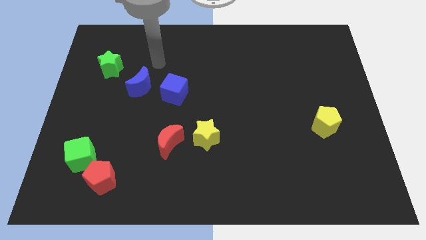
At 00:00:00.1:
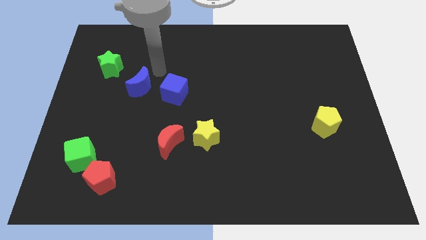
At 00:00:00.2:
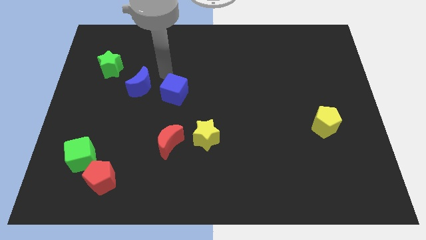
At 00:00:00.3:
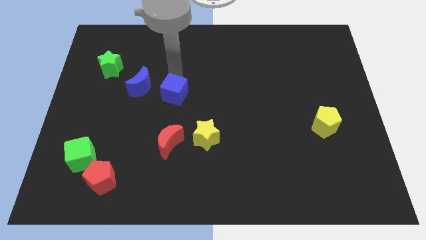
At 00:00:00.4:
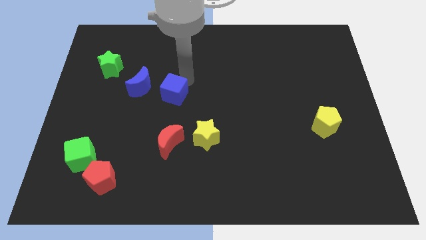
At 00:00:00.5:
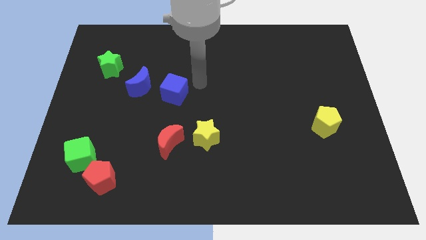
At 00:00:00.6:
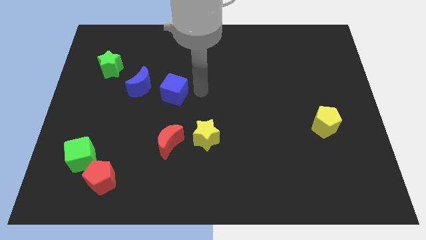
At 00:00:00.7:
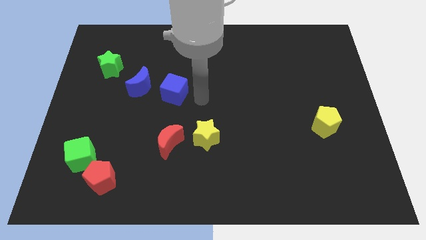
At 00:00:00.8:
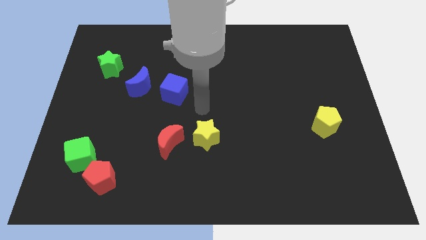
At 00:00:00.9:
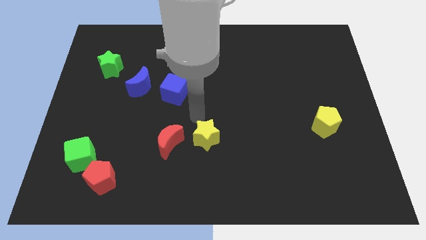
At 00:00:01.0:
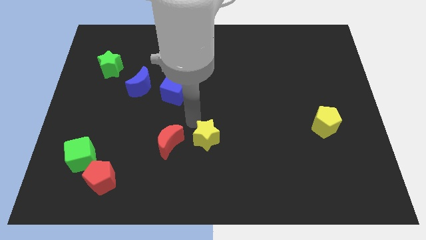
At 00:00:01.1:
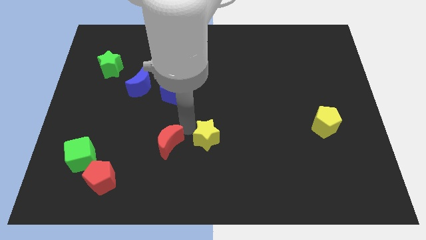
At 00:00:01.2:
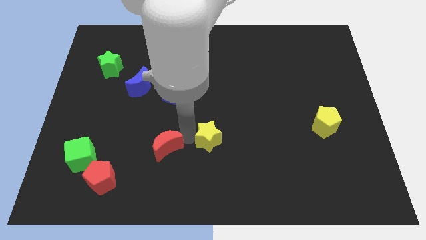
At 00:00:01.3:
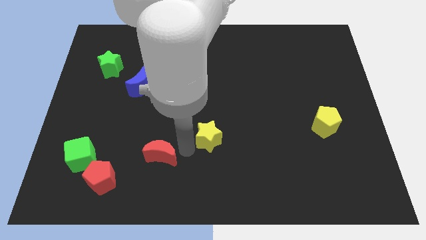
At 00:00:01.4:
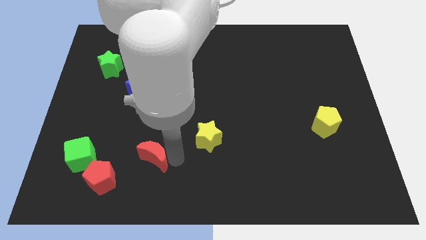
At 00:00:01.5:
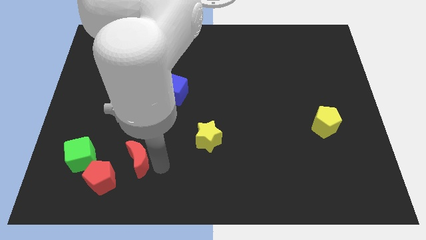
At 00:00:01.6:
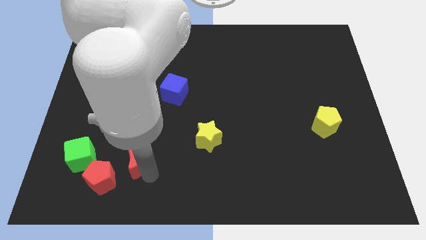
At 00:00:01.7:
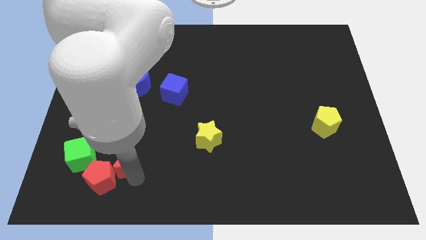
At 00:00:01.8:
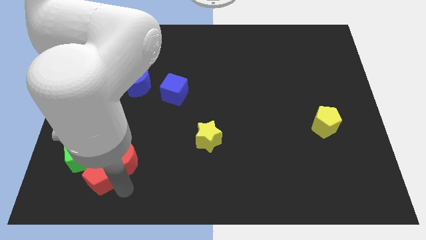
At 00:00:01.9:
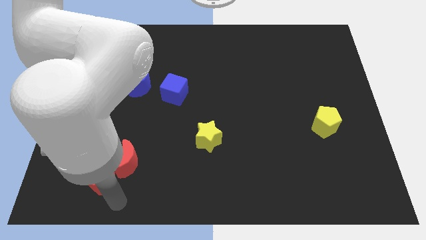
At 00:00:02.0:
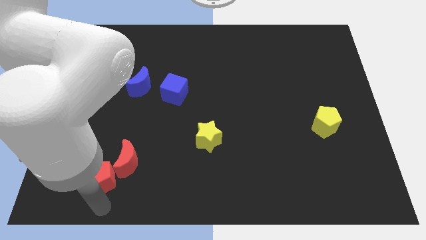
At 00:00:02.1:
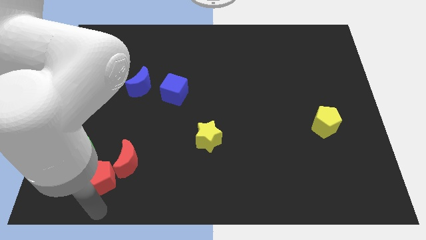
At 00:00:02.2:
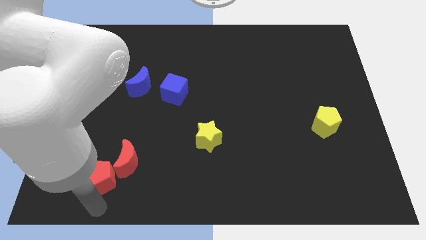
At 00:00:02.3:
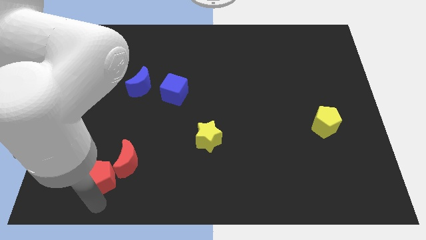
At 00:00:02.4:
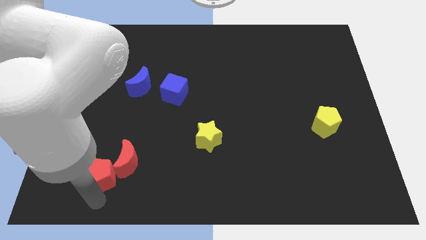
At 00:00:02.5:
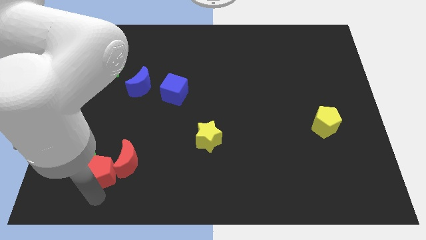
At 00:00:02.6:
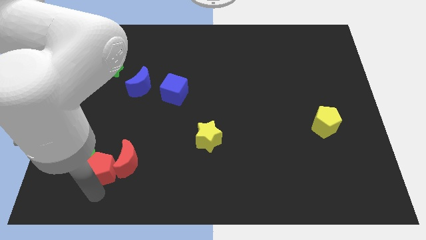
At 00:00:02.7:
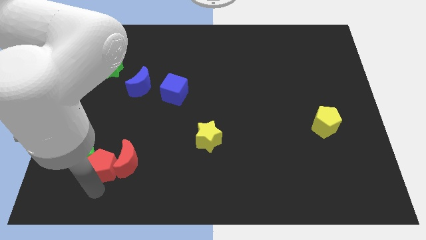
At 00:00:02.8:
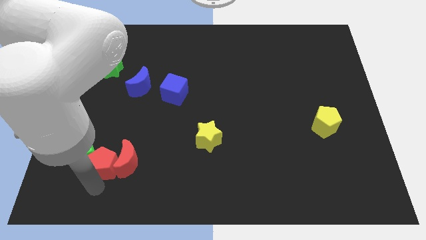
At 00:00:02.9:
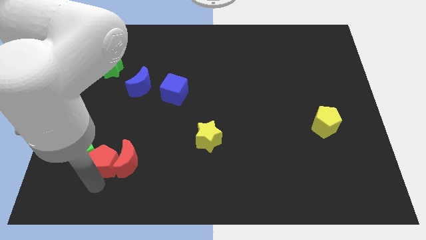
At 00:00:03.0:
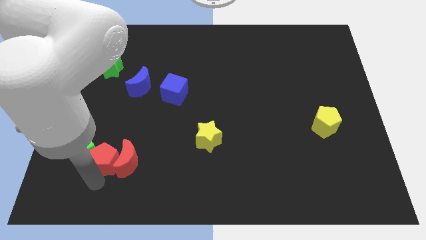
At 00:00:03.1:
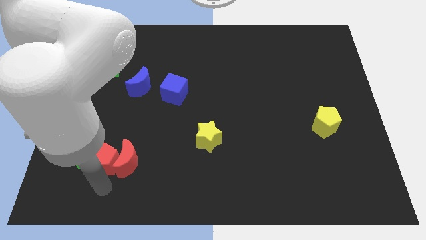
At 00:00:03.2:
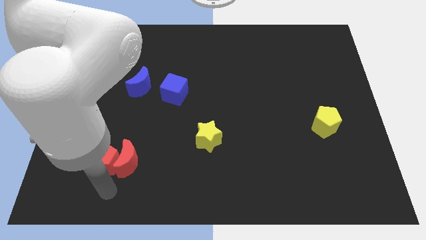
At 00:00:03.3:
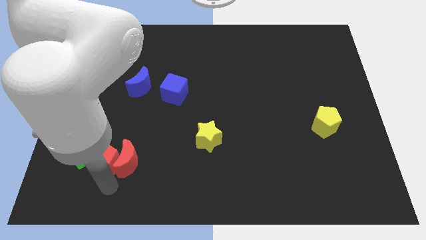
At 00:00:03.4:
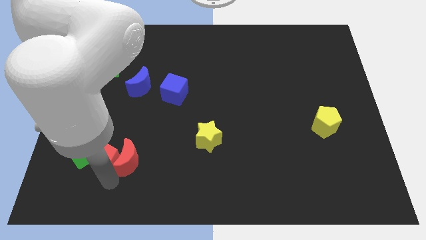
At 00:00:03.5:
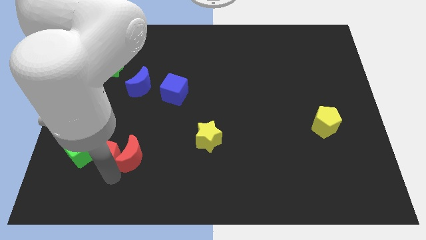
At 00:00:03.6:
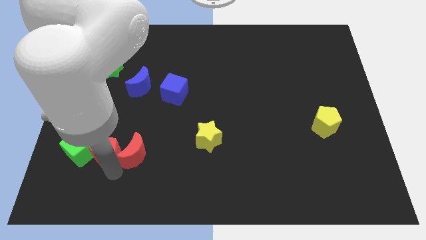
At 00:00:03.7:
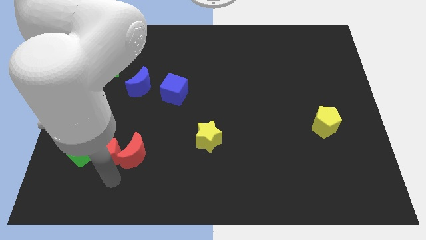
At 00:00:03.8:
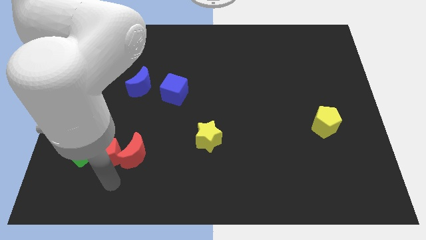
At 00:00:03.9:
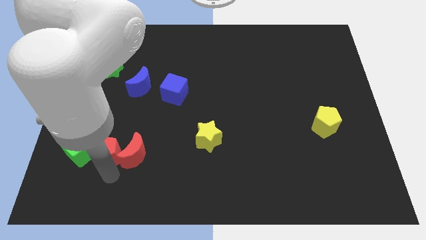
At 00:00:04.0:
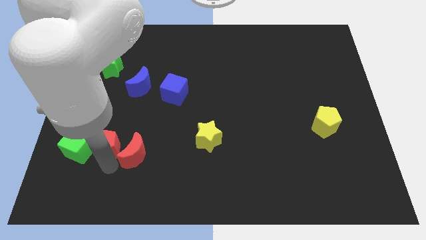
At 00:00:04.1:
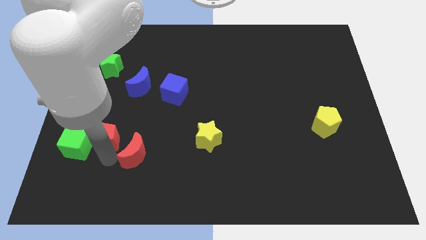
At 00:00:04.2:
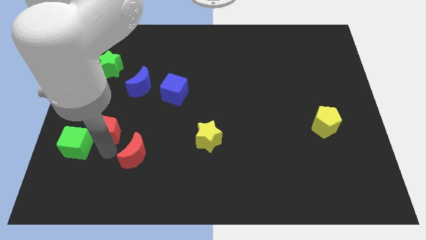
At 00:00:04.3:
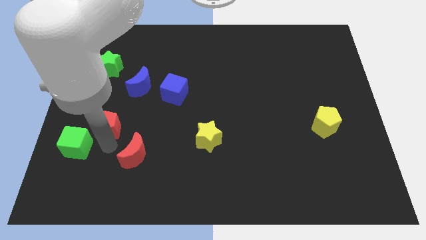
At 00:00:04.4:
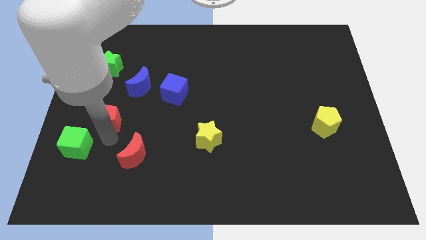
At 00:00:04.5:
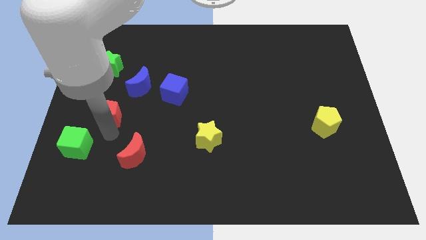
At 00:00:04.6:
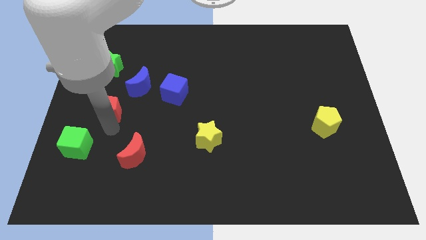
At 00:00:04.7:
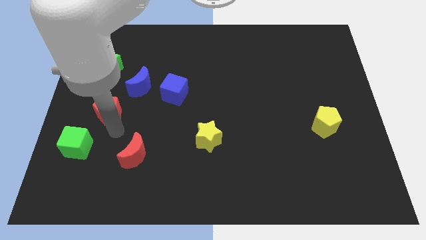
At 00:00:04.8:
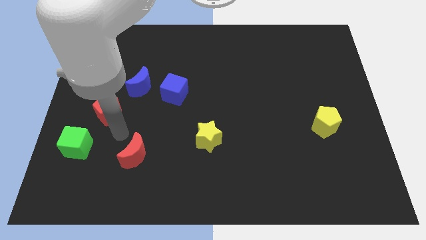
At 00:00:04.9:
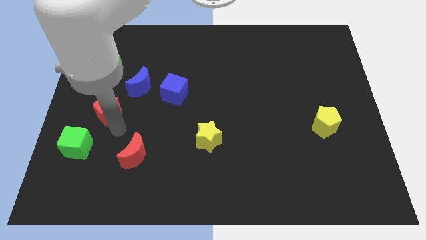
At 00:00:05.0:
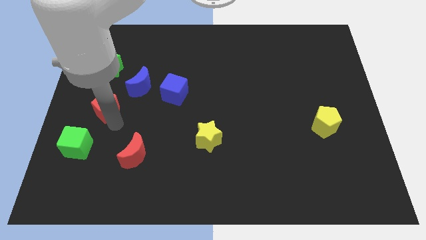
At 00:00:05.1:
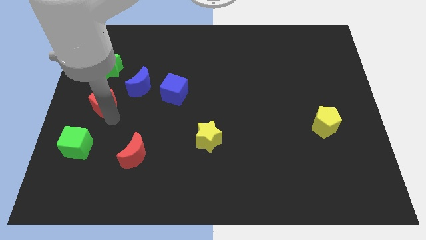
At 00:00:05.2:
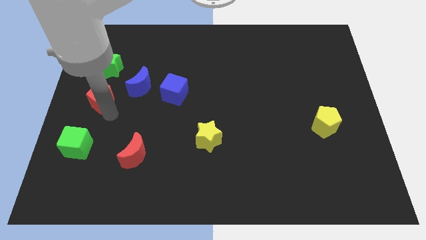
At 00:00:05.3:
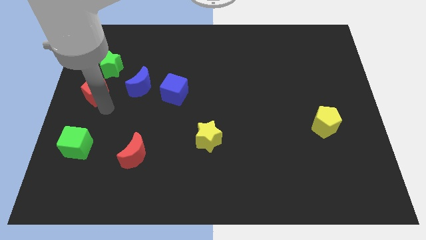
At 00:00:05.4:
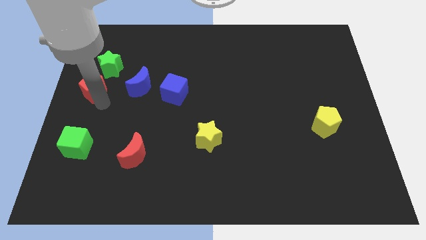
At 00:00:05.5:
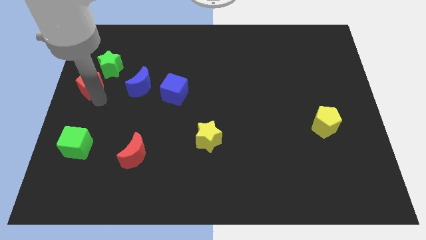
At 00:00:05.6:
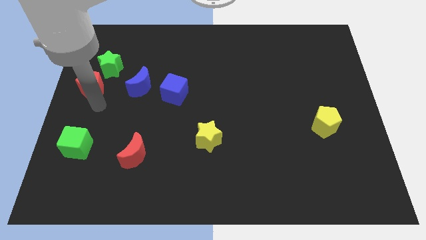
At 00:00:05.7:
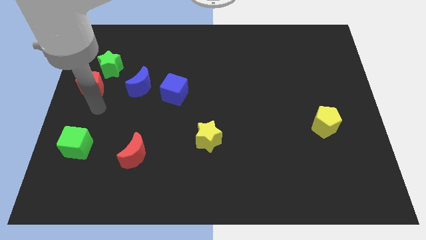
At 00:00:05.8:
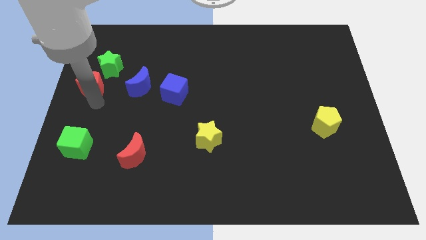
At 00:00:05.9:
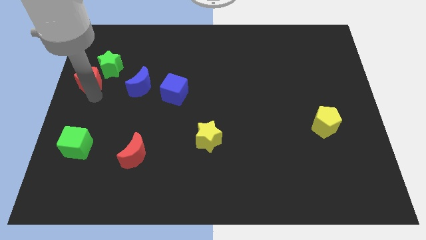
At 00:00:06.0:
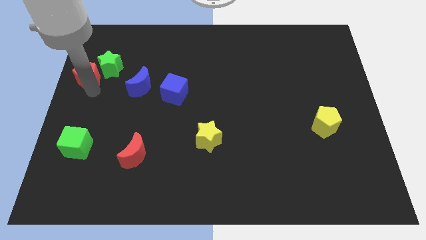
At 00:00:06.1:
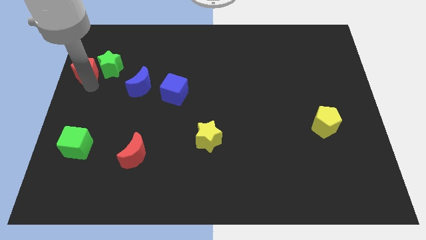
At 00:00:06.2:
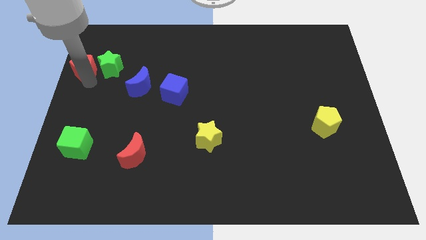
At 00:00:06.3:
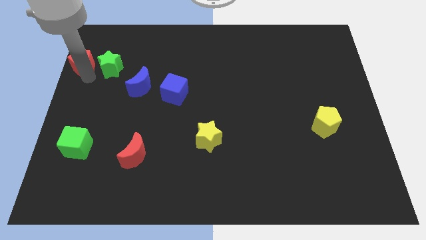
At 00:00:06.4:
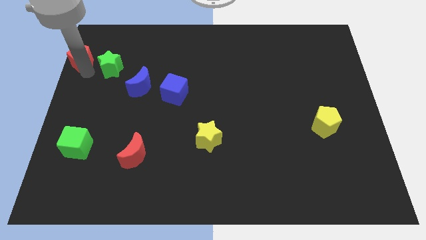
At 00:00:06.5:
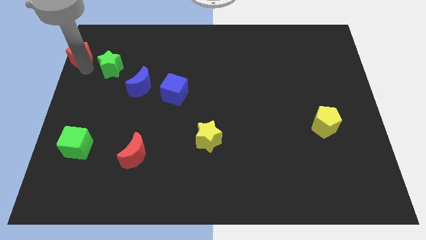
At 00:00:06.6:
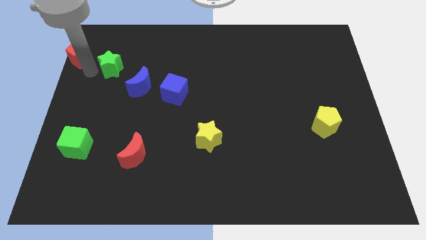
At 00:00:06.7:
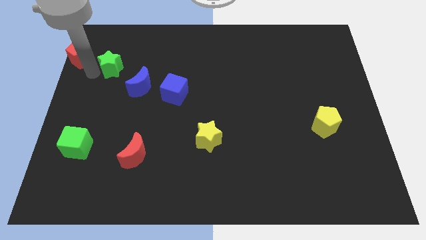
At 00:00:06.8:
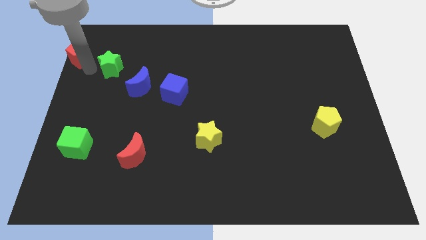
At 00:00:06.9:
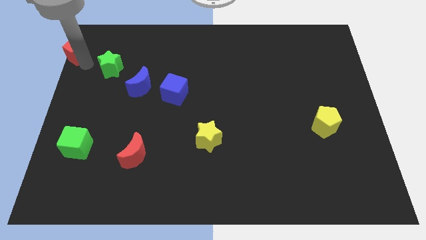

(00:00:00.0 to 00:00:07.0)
slide the red pentagon to the upper left corner
